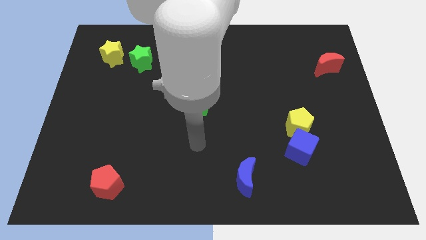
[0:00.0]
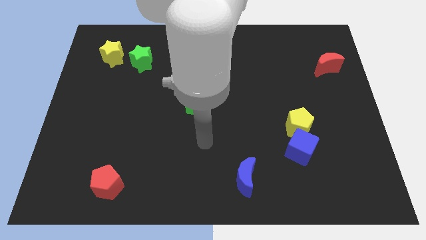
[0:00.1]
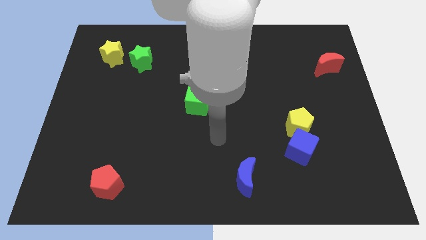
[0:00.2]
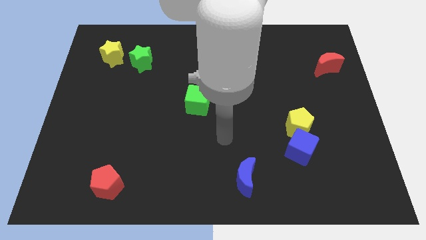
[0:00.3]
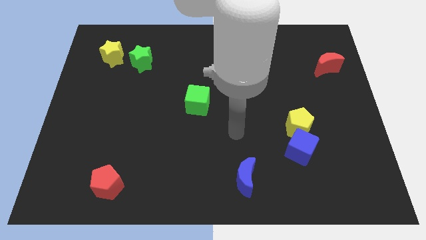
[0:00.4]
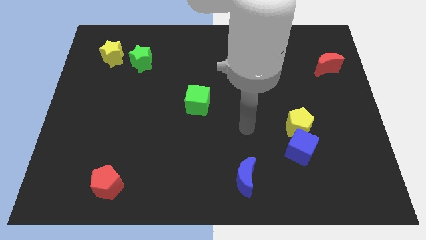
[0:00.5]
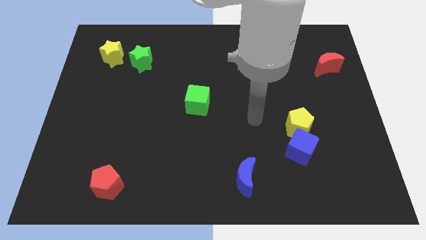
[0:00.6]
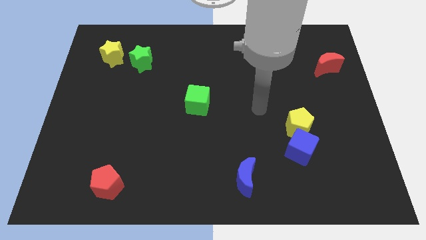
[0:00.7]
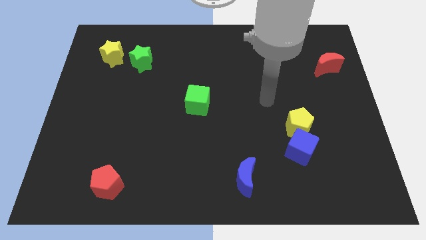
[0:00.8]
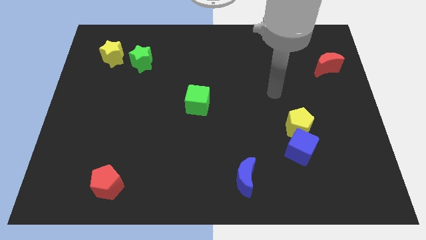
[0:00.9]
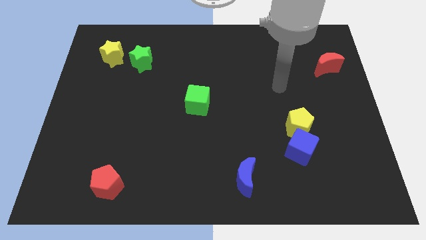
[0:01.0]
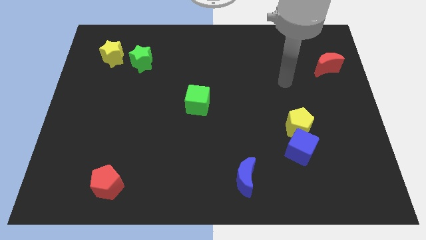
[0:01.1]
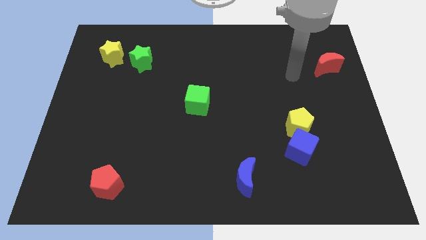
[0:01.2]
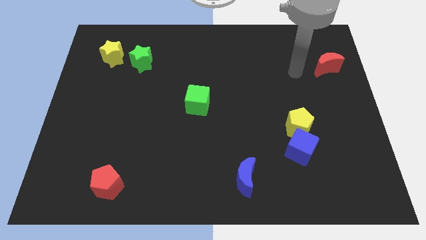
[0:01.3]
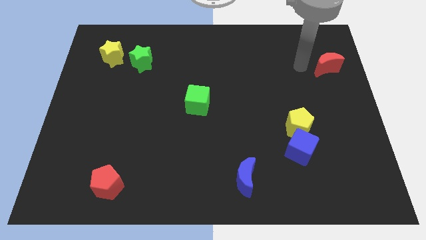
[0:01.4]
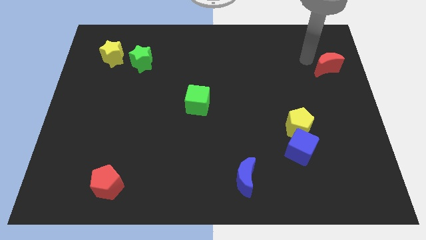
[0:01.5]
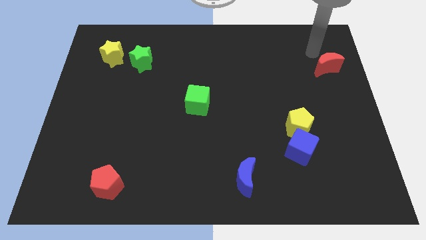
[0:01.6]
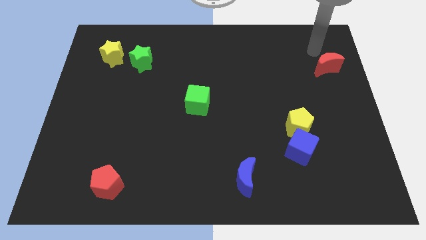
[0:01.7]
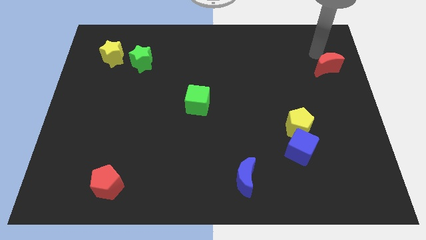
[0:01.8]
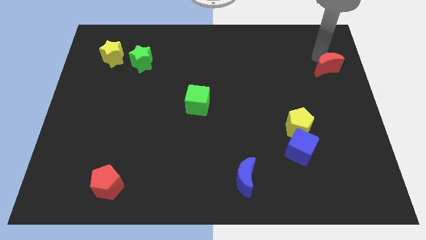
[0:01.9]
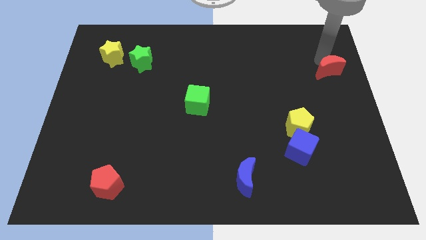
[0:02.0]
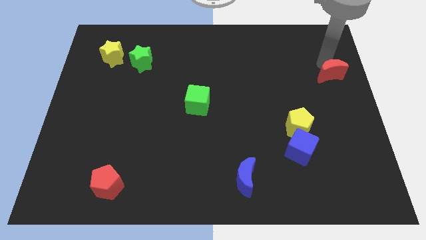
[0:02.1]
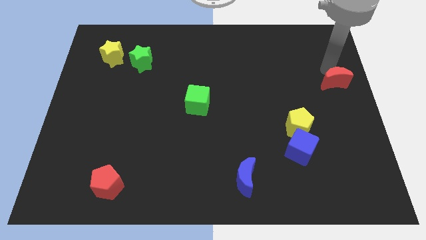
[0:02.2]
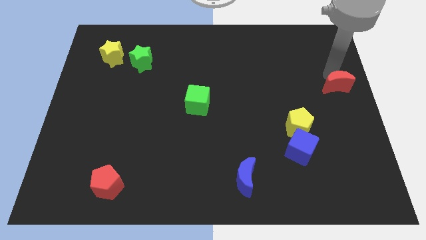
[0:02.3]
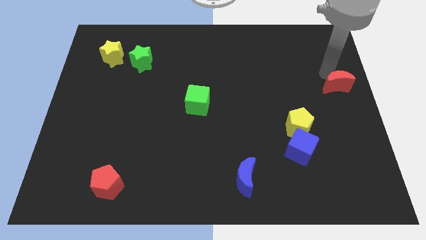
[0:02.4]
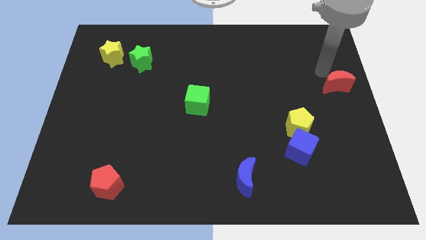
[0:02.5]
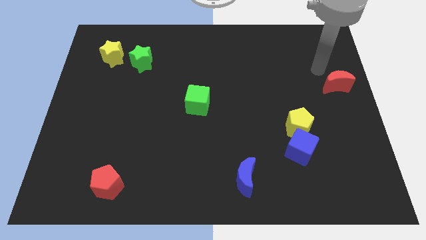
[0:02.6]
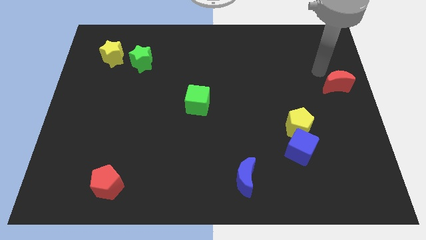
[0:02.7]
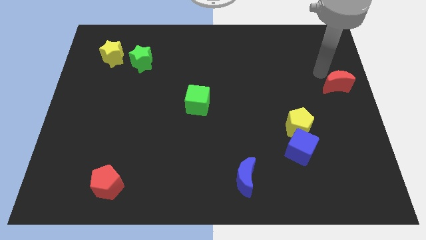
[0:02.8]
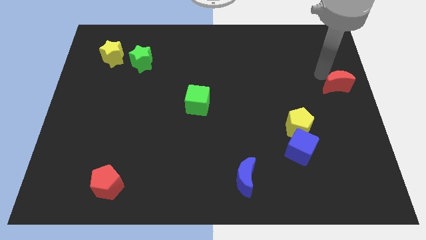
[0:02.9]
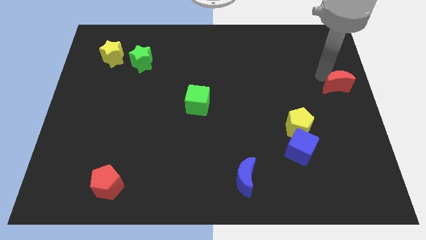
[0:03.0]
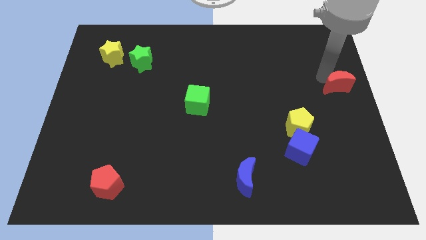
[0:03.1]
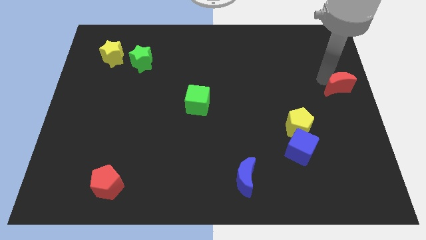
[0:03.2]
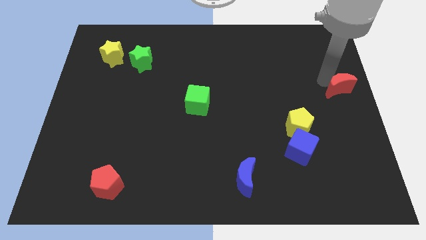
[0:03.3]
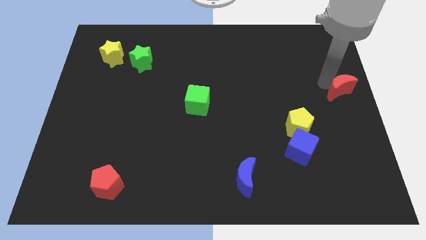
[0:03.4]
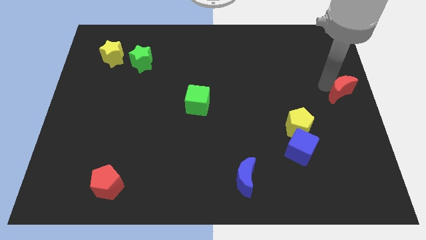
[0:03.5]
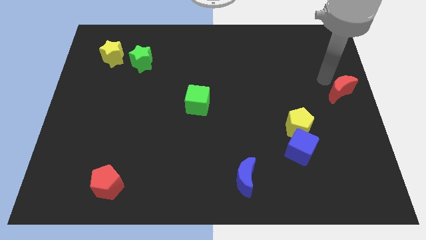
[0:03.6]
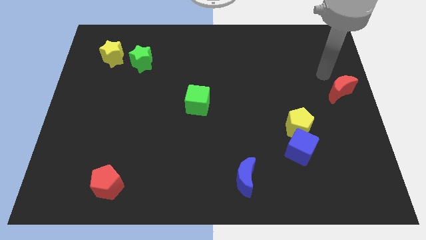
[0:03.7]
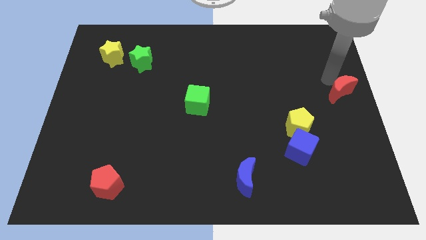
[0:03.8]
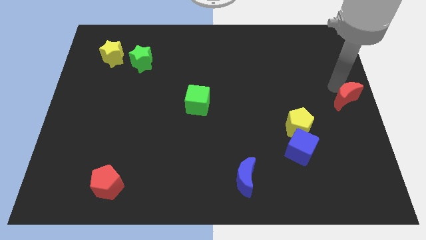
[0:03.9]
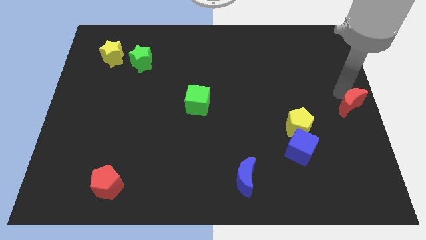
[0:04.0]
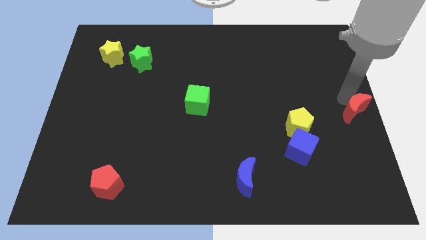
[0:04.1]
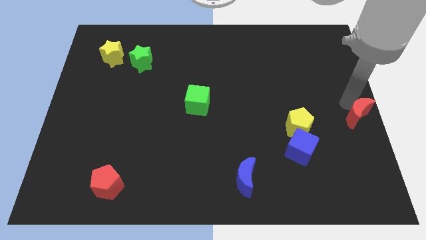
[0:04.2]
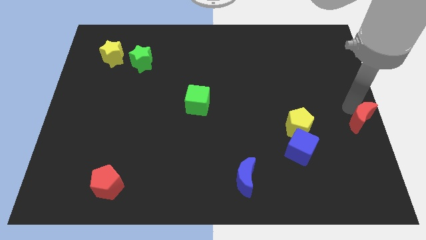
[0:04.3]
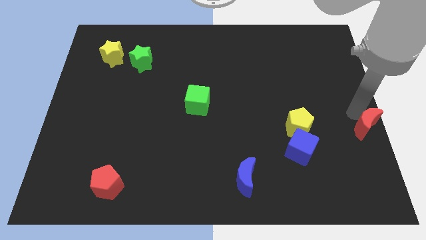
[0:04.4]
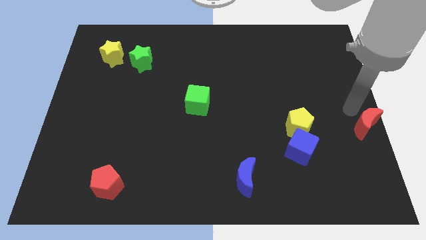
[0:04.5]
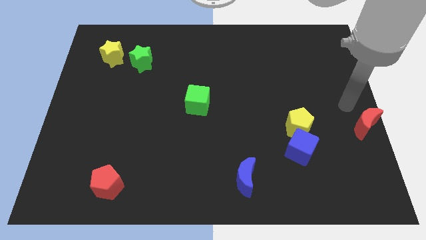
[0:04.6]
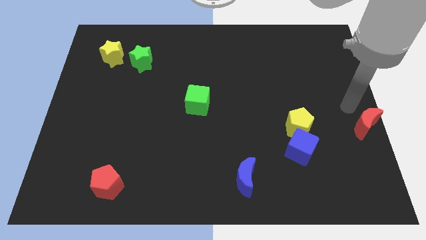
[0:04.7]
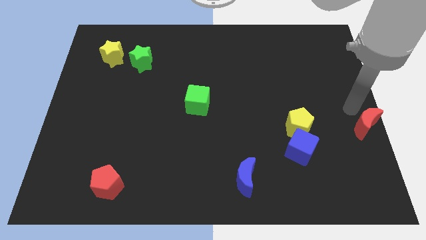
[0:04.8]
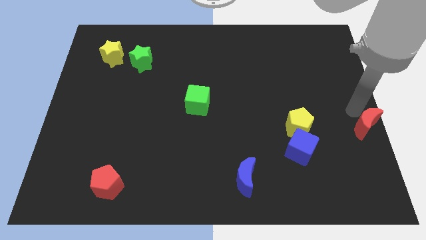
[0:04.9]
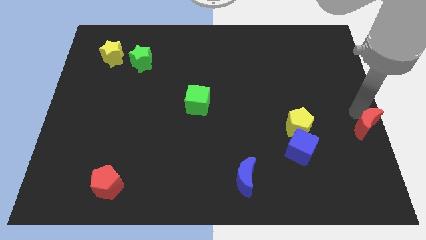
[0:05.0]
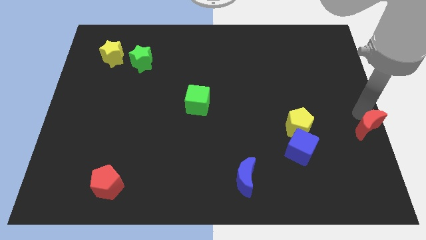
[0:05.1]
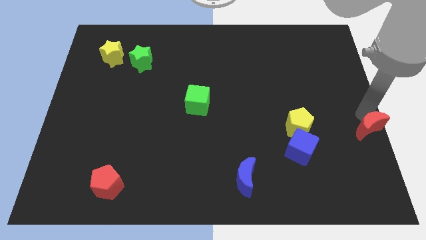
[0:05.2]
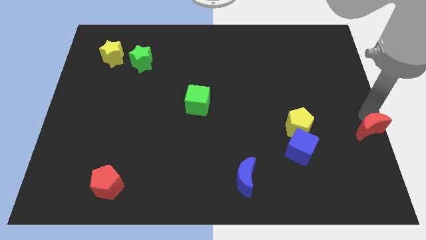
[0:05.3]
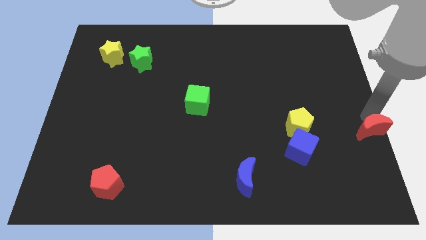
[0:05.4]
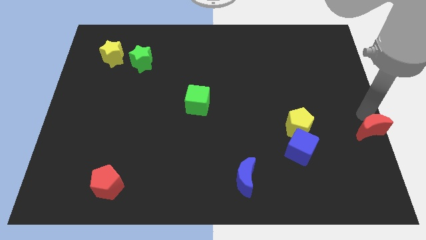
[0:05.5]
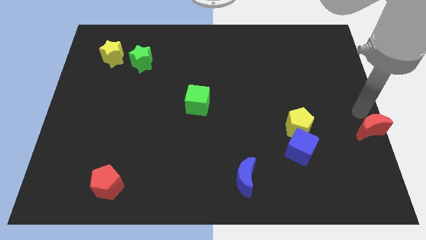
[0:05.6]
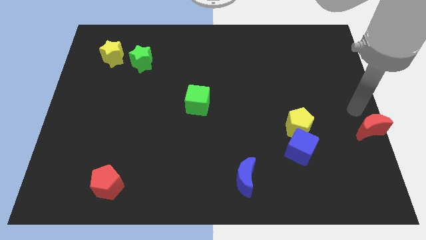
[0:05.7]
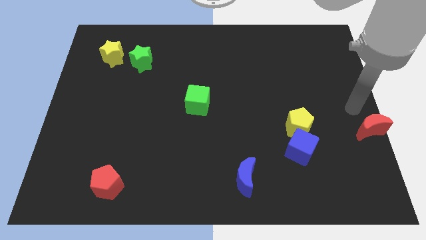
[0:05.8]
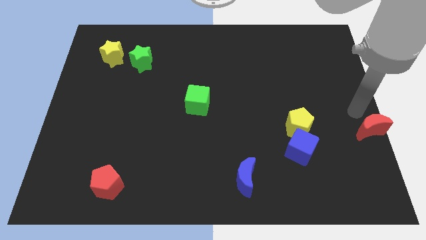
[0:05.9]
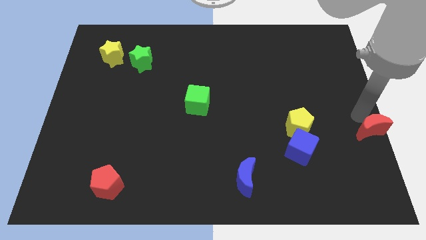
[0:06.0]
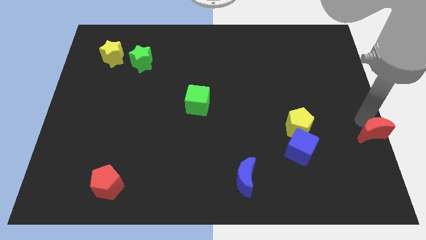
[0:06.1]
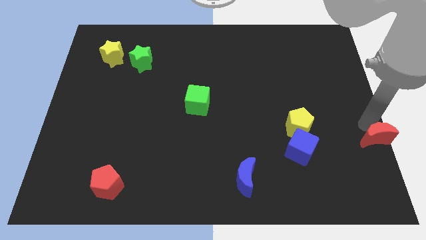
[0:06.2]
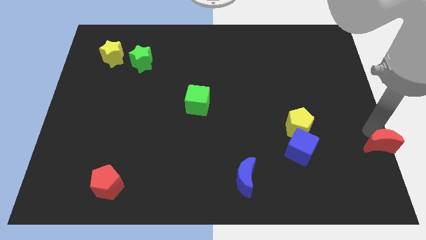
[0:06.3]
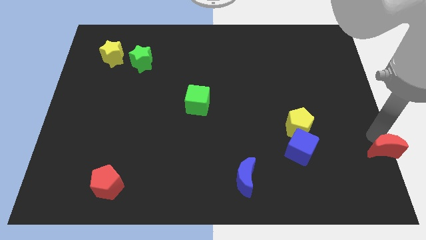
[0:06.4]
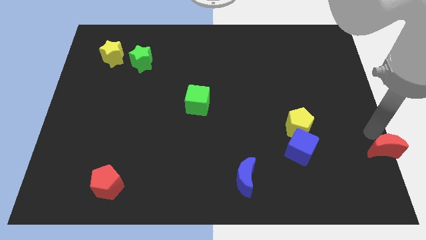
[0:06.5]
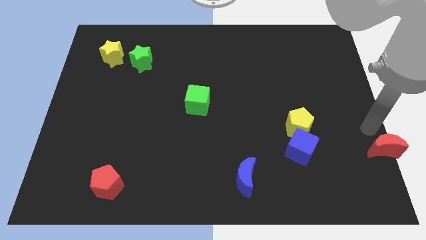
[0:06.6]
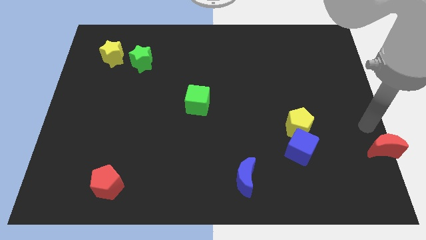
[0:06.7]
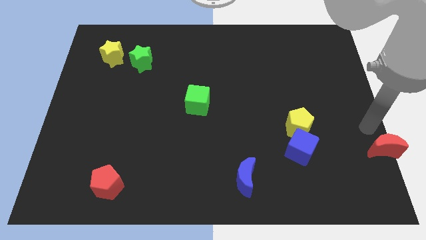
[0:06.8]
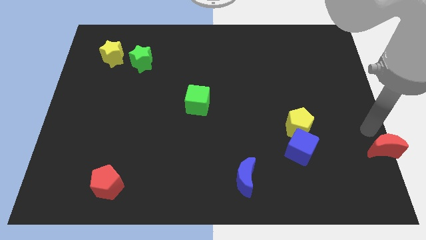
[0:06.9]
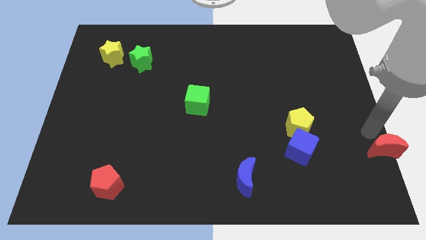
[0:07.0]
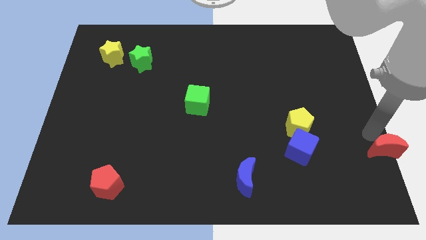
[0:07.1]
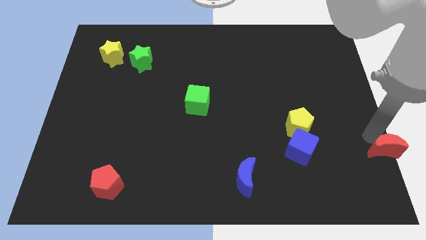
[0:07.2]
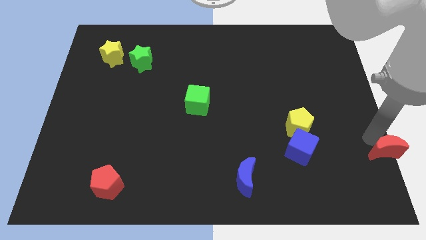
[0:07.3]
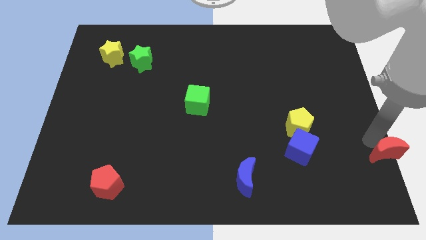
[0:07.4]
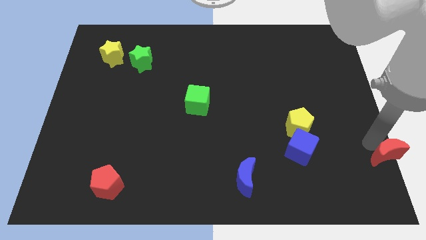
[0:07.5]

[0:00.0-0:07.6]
push the red moon to the bottom right
